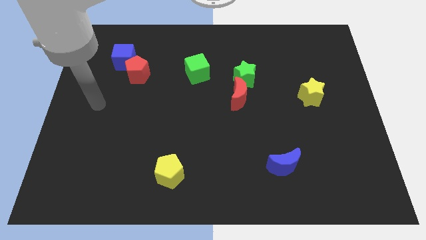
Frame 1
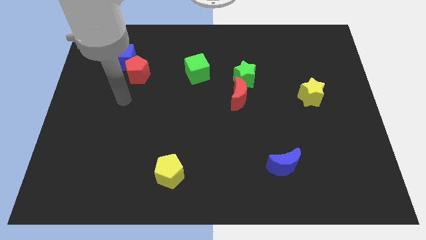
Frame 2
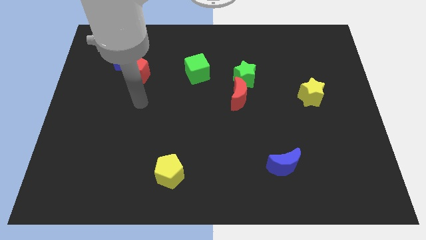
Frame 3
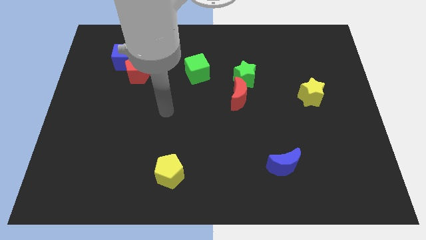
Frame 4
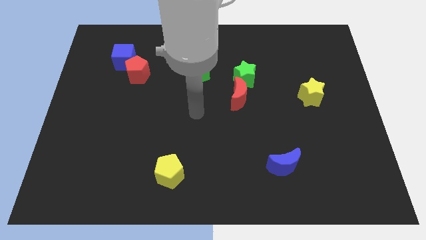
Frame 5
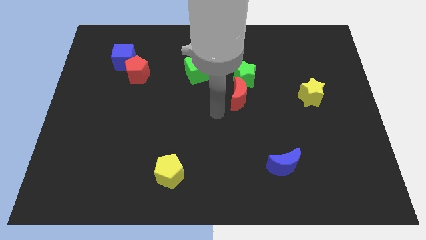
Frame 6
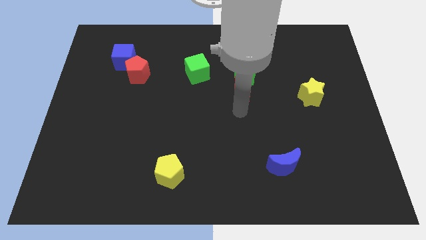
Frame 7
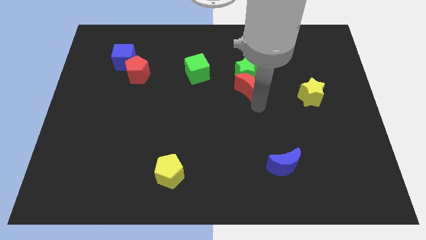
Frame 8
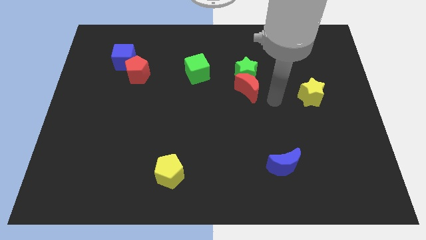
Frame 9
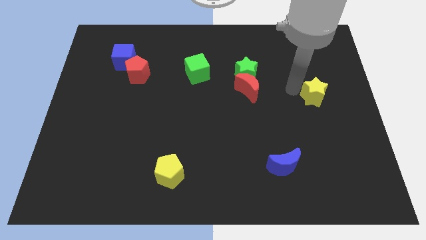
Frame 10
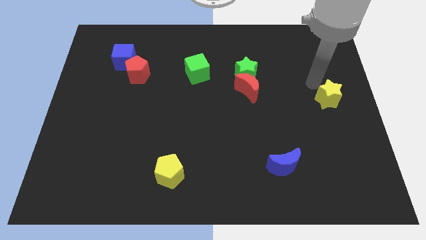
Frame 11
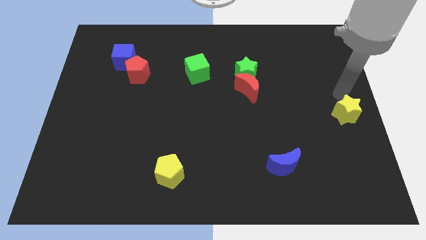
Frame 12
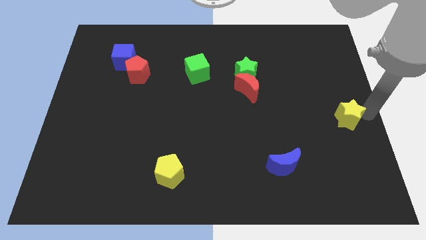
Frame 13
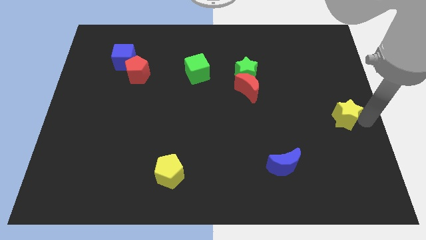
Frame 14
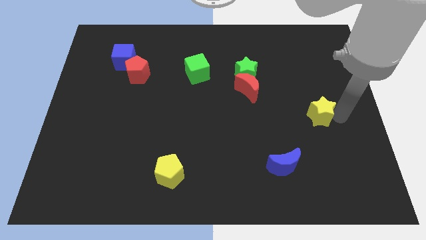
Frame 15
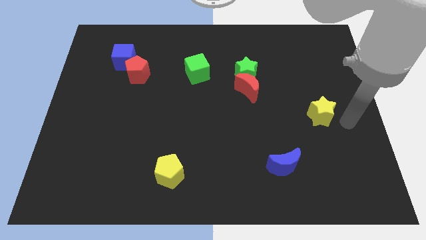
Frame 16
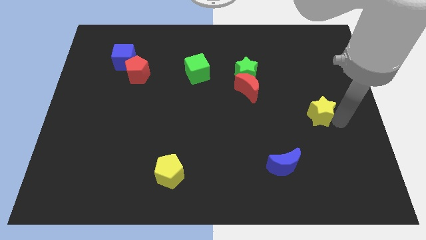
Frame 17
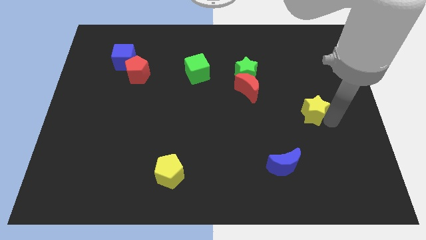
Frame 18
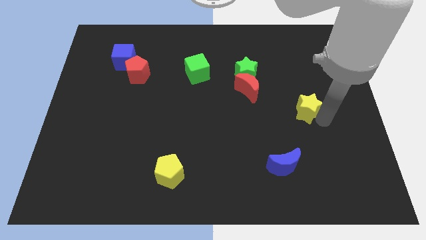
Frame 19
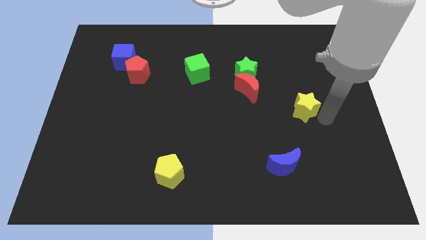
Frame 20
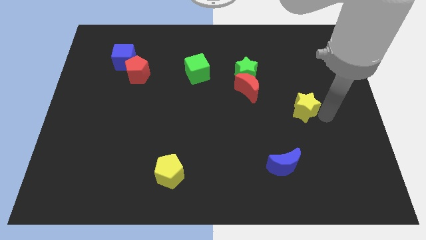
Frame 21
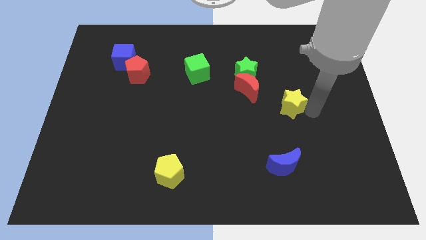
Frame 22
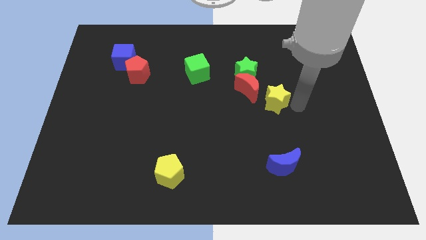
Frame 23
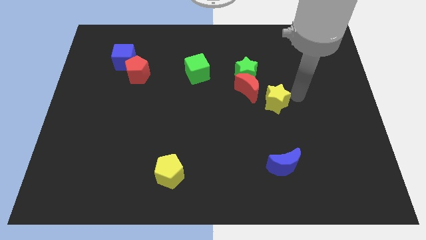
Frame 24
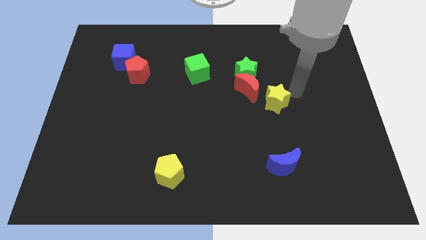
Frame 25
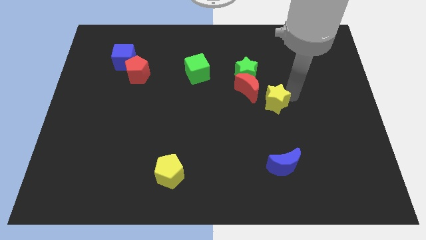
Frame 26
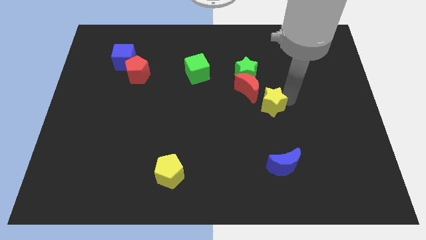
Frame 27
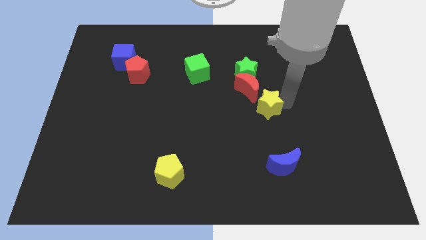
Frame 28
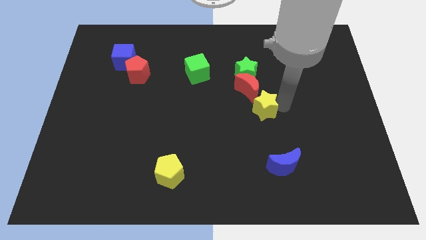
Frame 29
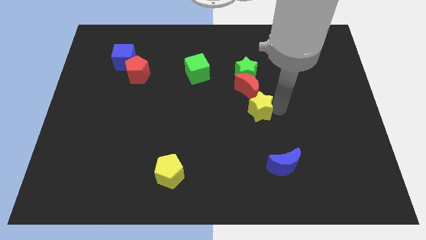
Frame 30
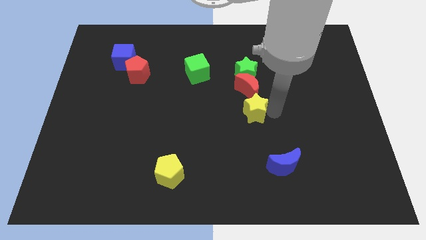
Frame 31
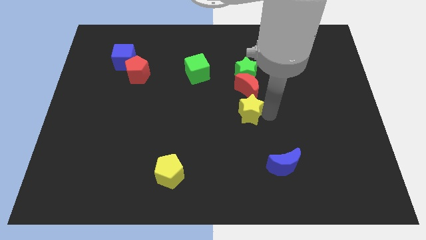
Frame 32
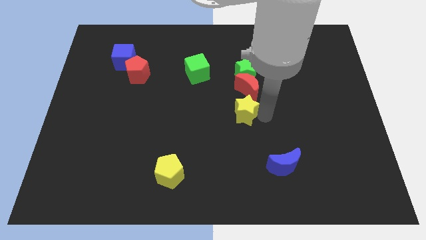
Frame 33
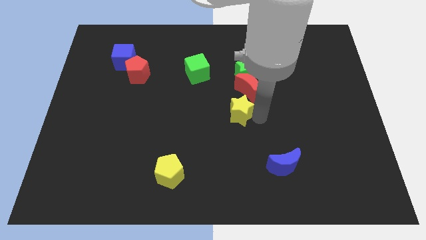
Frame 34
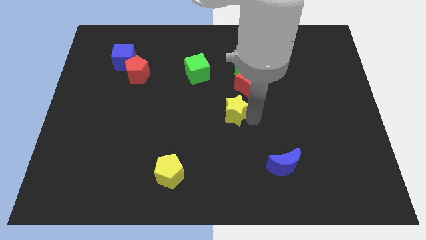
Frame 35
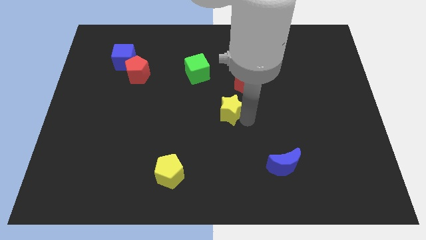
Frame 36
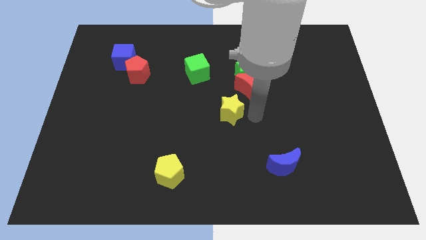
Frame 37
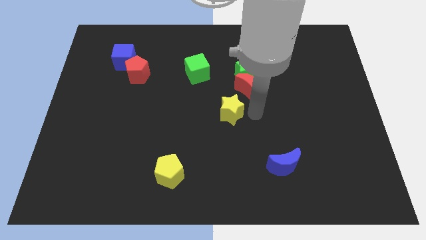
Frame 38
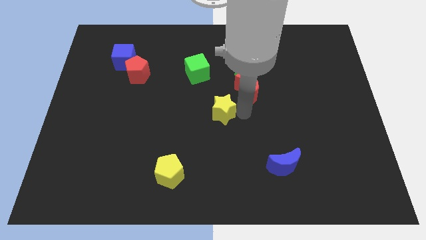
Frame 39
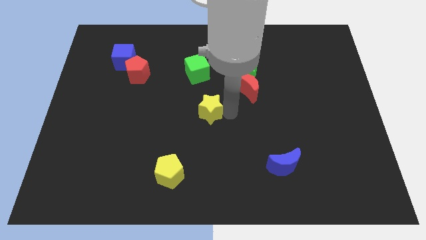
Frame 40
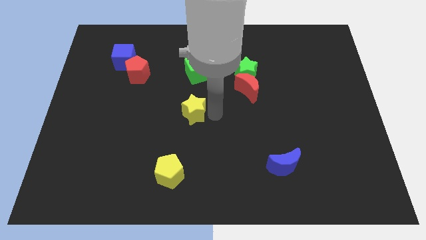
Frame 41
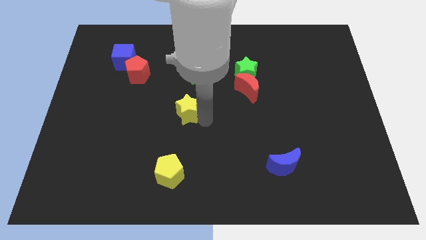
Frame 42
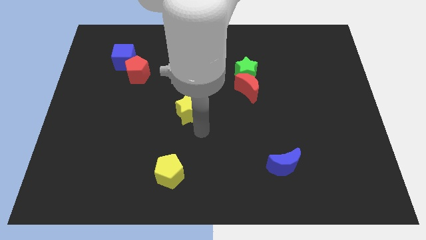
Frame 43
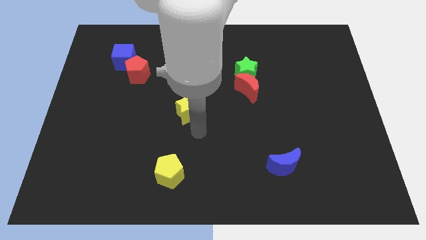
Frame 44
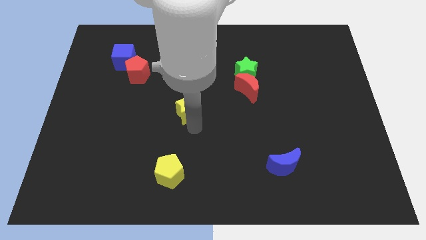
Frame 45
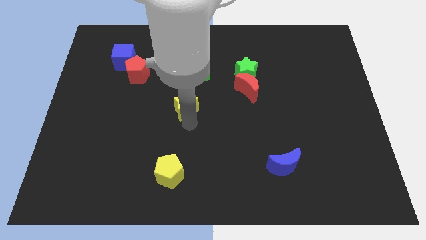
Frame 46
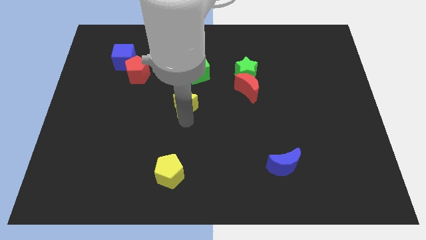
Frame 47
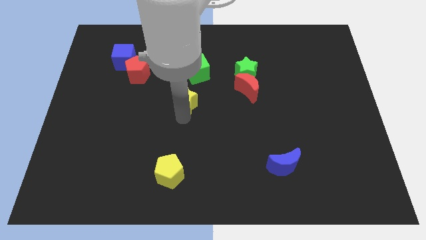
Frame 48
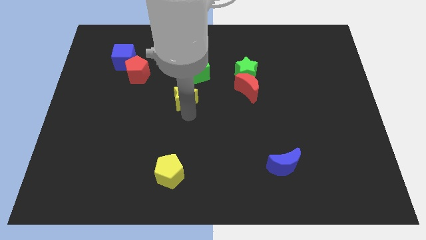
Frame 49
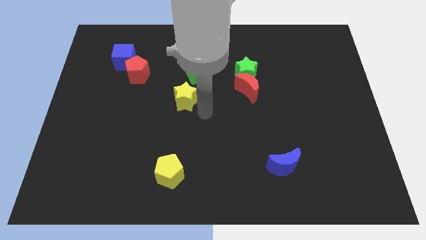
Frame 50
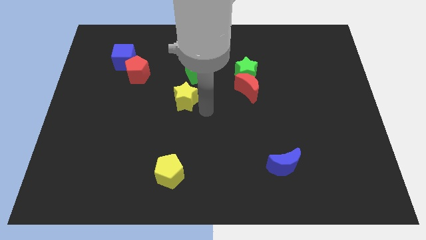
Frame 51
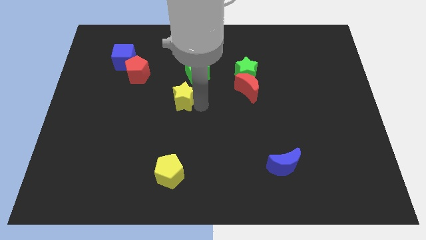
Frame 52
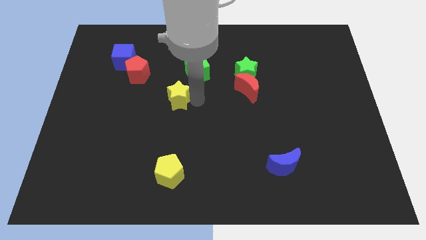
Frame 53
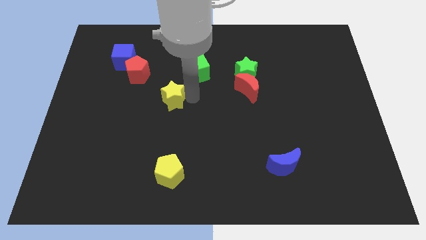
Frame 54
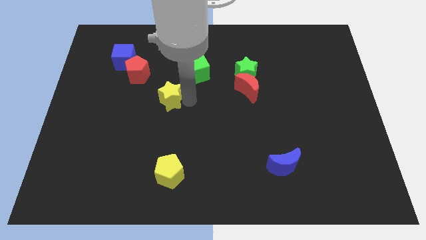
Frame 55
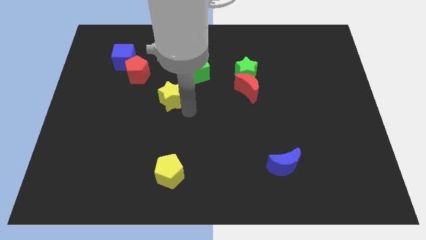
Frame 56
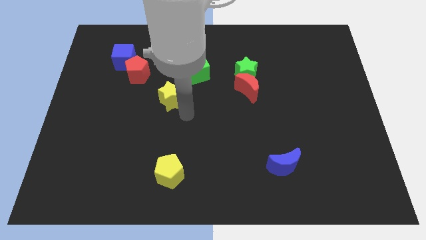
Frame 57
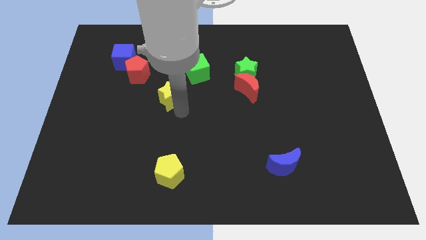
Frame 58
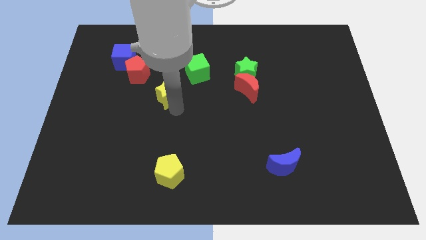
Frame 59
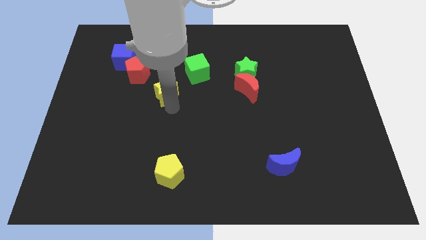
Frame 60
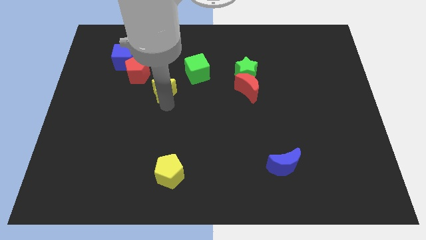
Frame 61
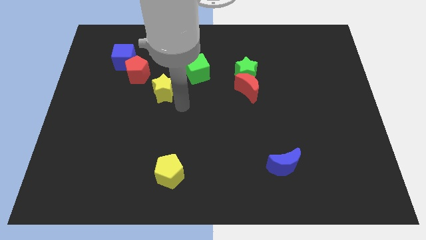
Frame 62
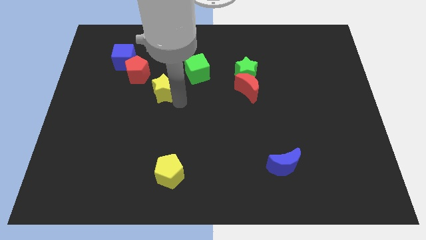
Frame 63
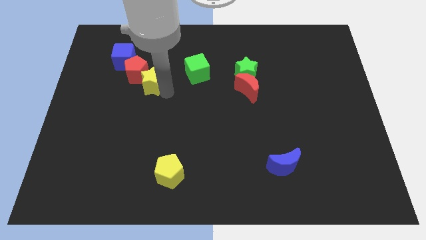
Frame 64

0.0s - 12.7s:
slide the yellow star next to the red pentagon

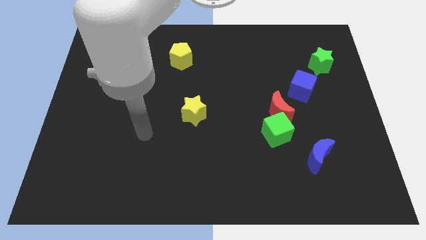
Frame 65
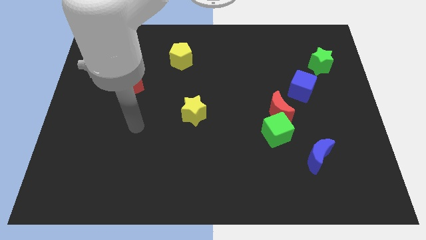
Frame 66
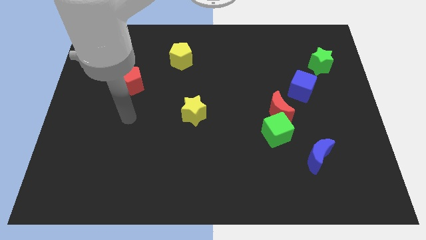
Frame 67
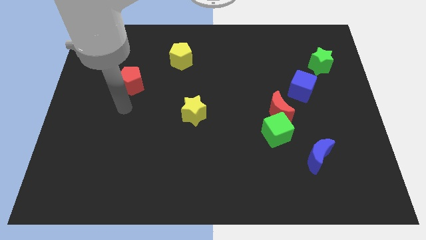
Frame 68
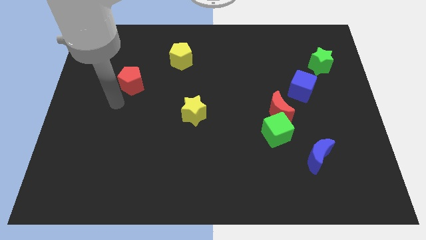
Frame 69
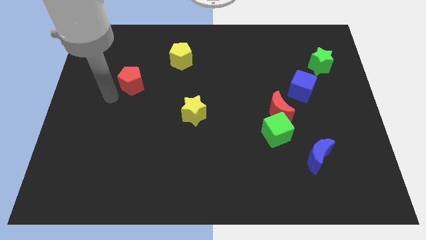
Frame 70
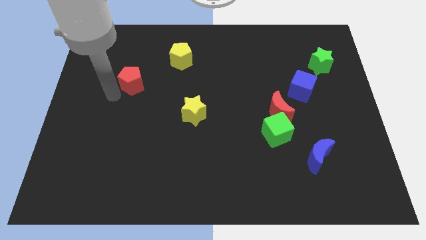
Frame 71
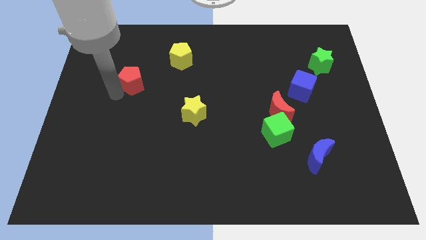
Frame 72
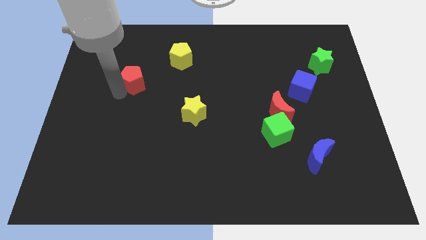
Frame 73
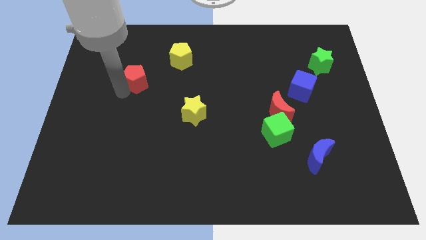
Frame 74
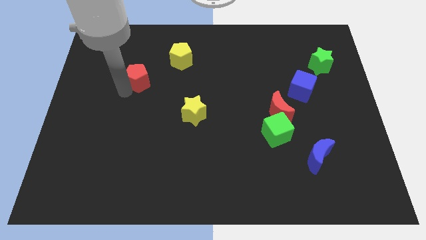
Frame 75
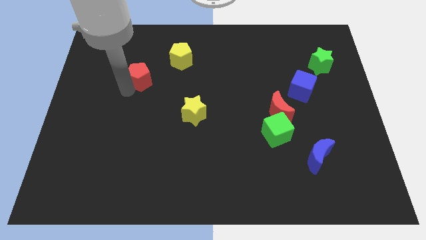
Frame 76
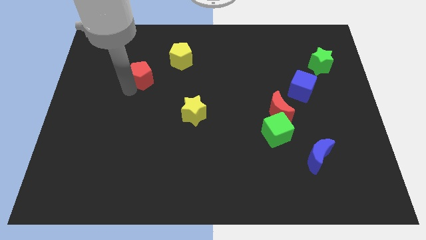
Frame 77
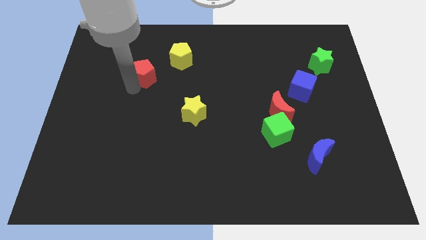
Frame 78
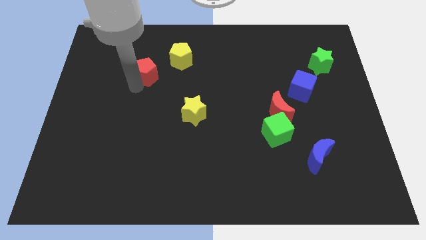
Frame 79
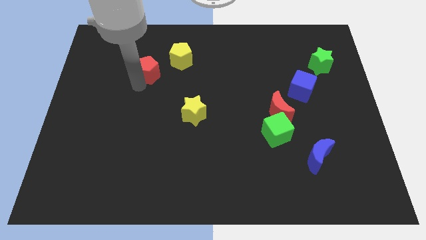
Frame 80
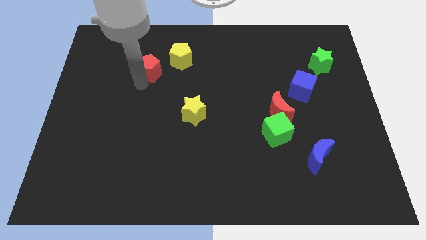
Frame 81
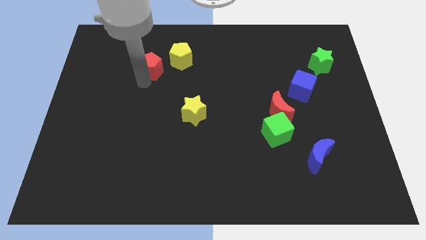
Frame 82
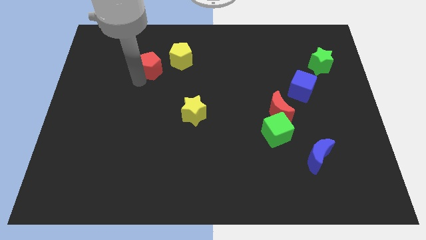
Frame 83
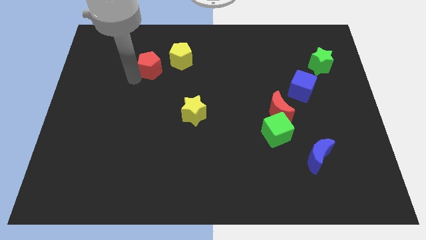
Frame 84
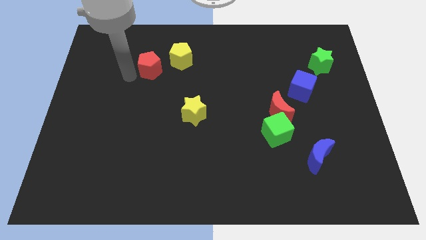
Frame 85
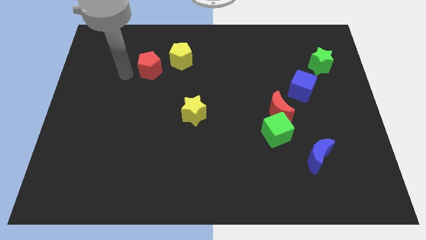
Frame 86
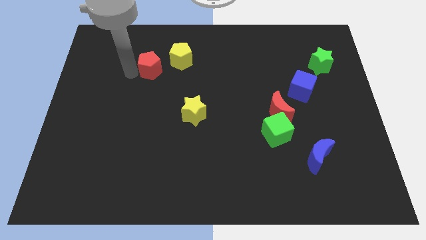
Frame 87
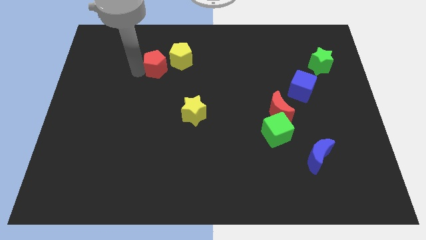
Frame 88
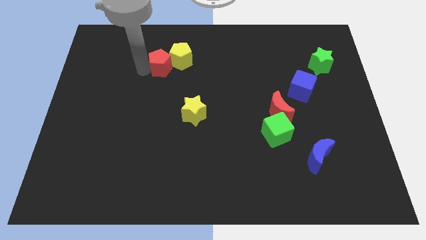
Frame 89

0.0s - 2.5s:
move the red pentagon towards the yellow pentagon
